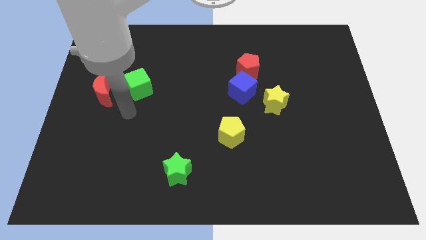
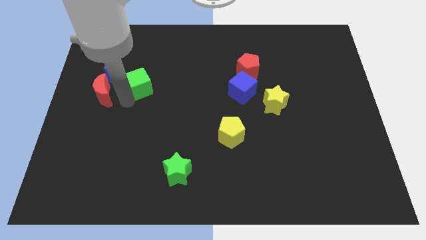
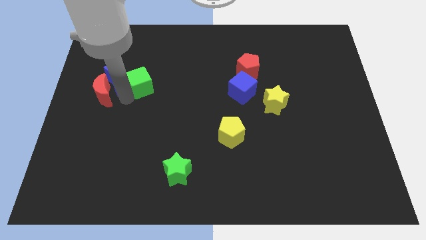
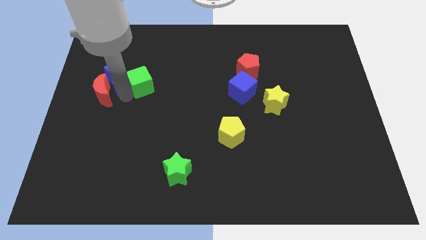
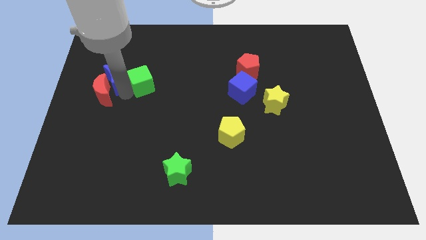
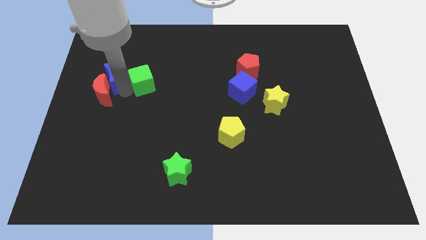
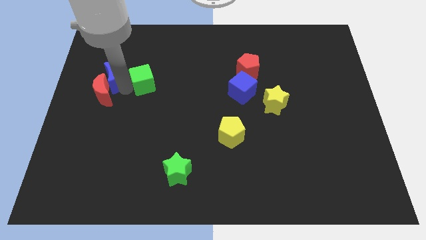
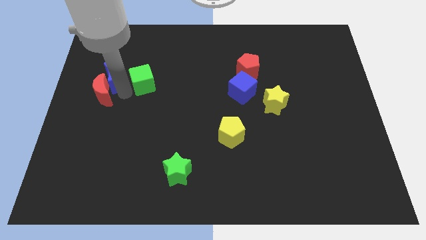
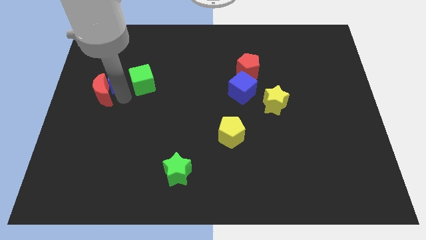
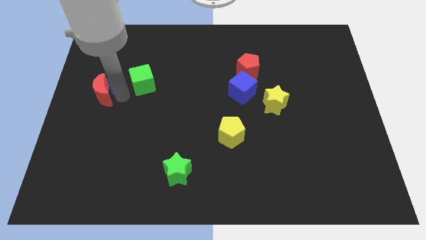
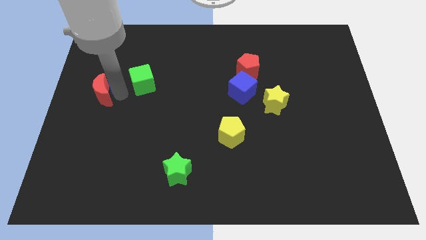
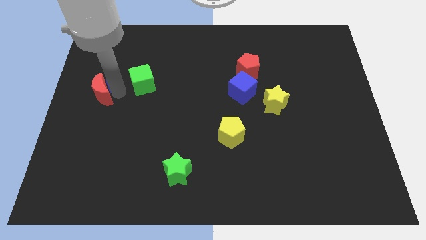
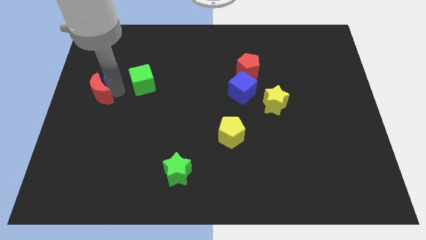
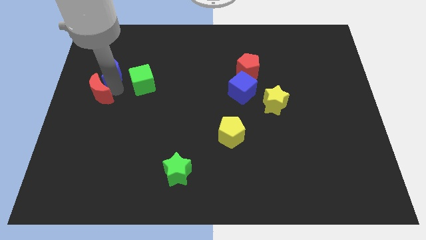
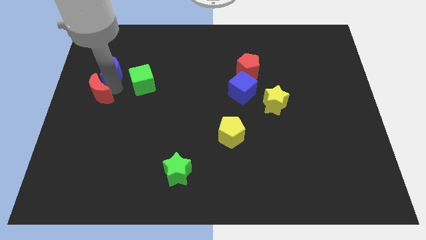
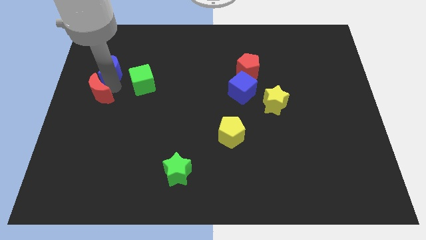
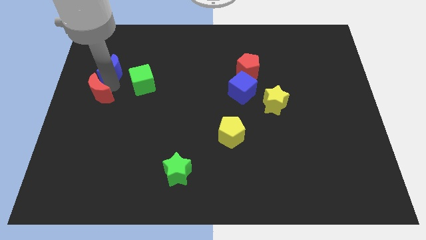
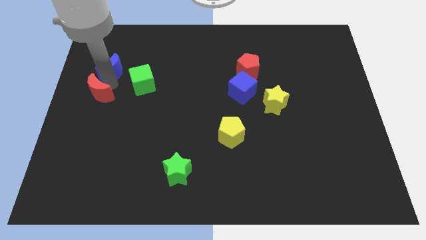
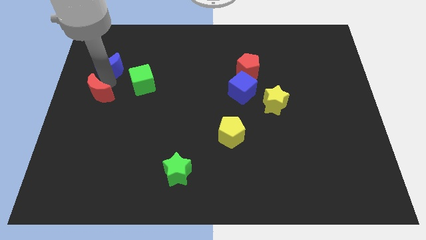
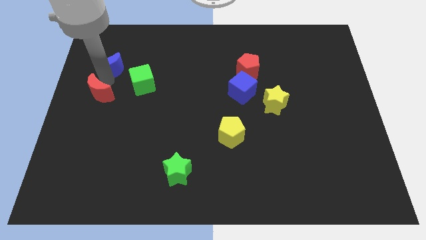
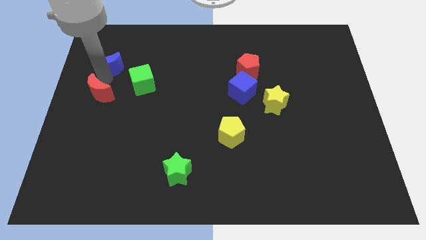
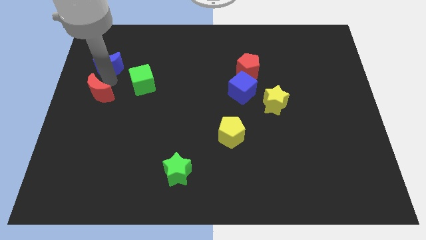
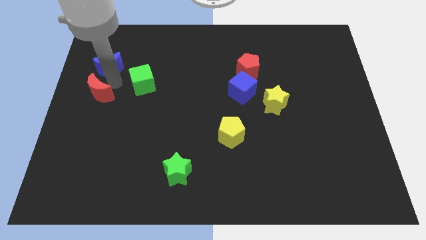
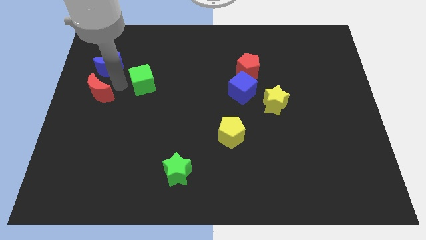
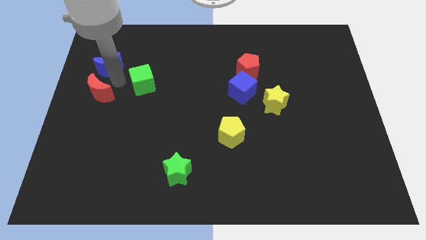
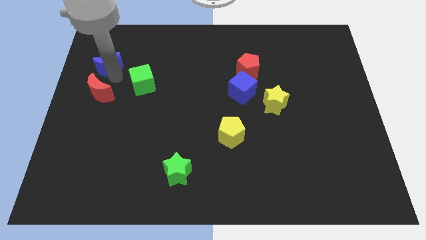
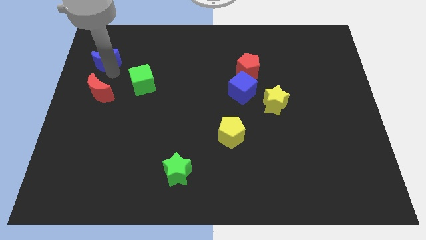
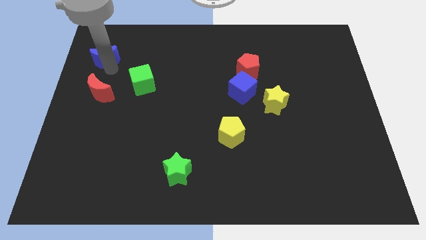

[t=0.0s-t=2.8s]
pull the blue moon apart from the red moon and green cube

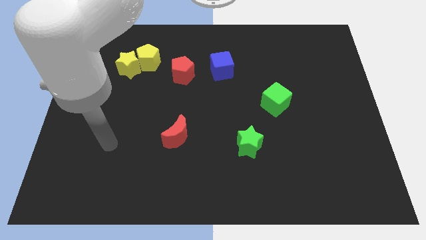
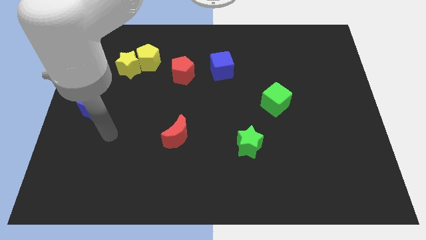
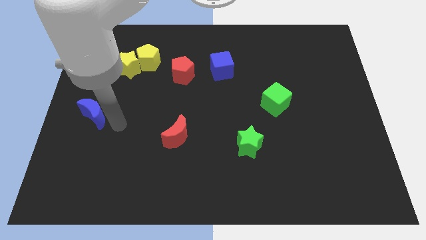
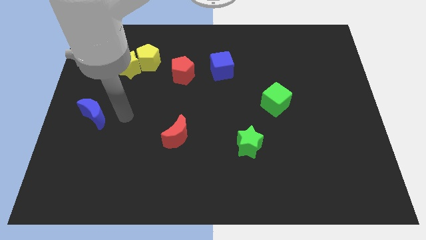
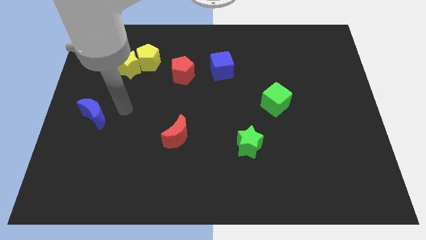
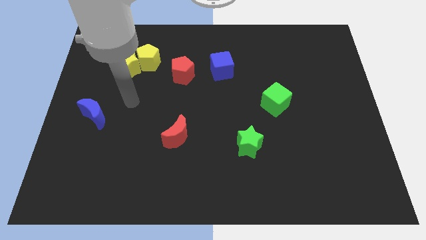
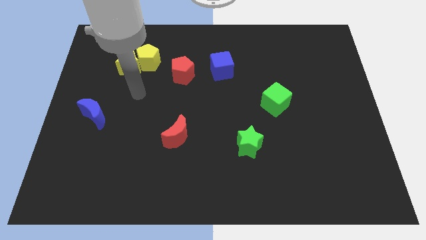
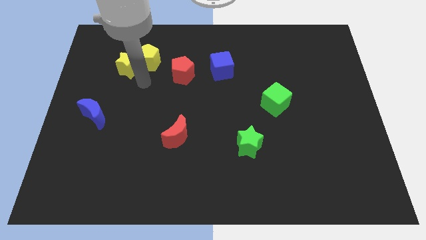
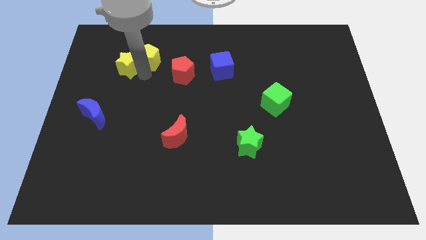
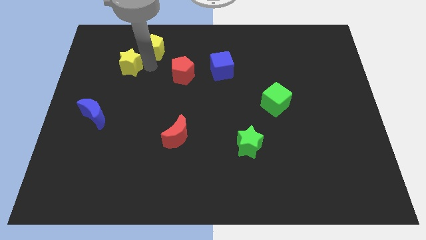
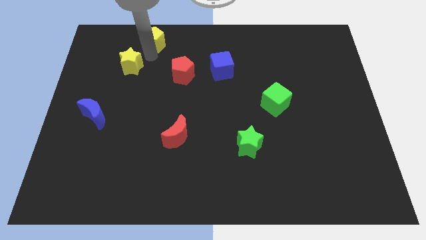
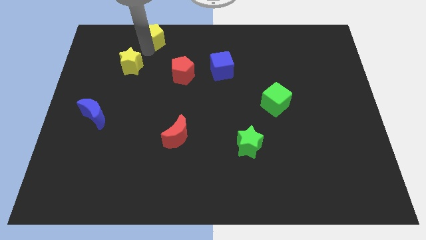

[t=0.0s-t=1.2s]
pull the yellow star apart from the yellow pentagon

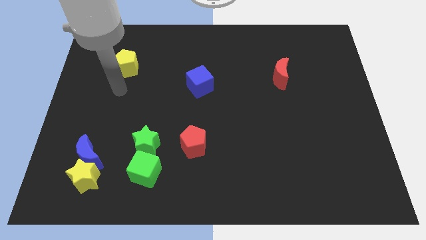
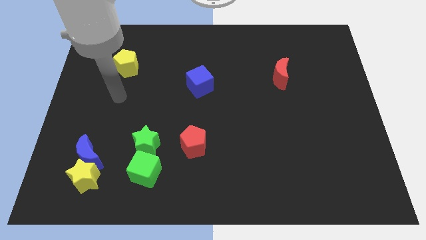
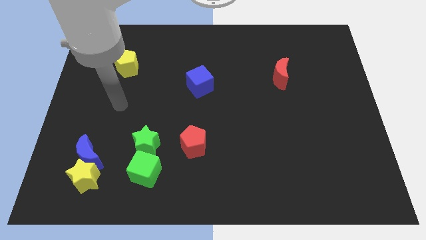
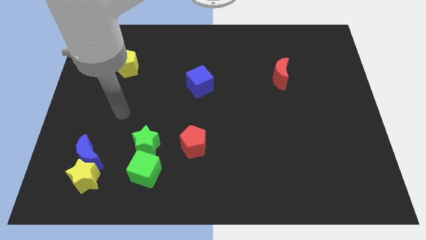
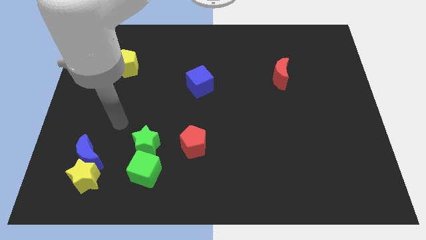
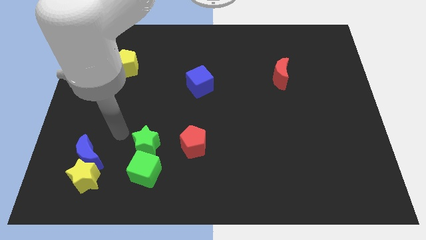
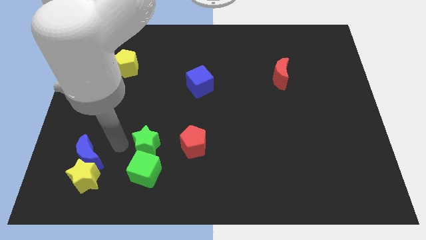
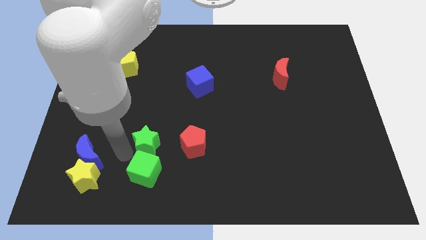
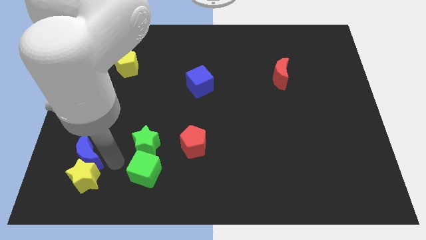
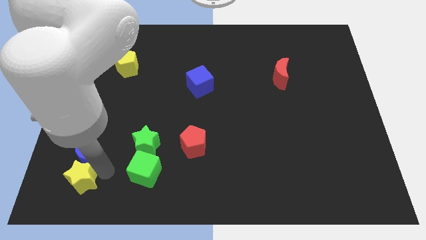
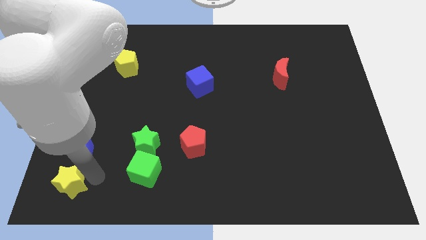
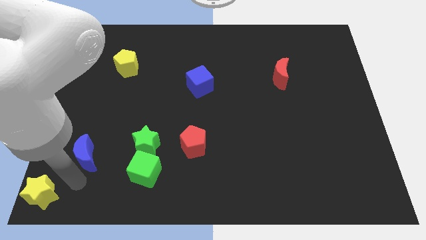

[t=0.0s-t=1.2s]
move the blue moon away from the yellow star

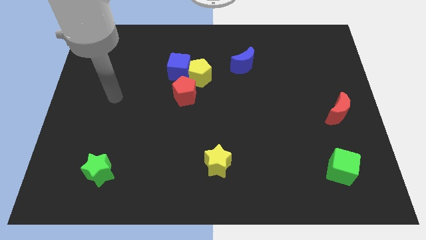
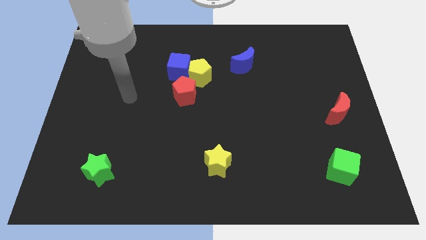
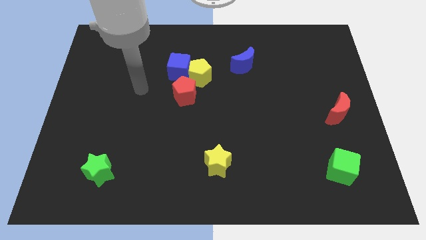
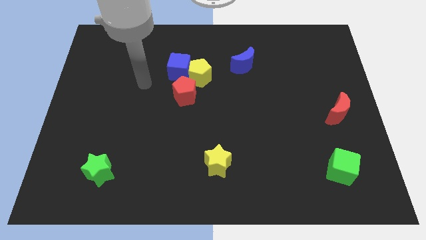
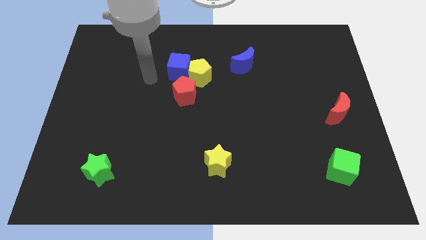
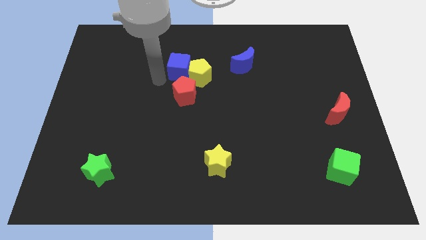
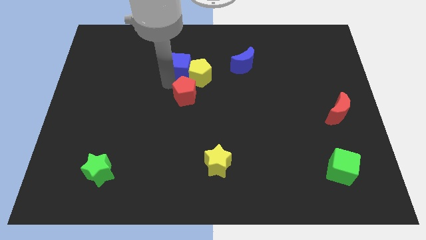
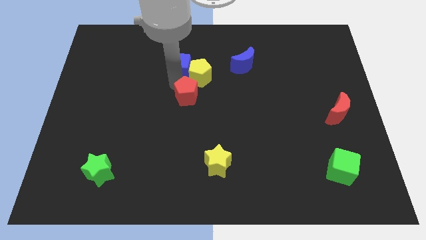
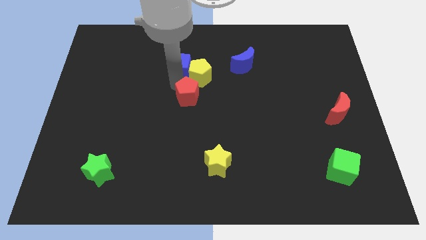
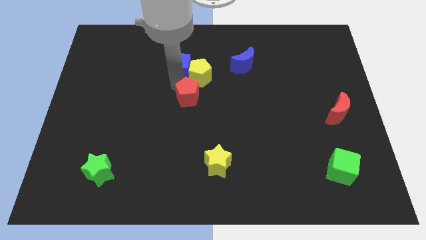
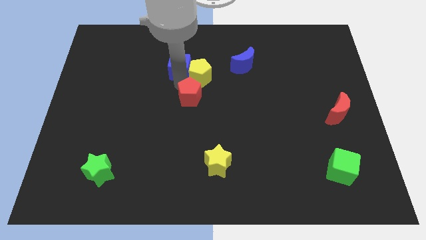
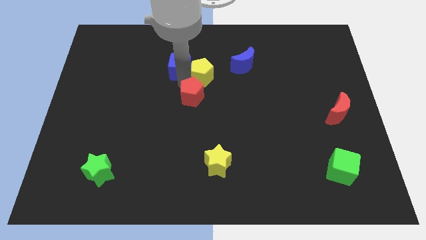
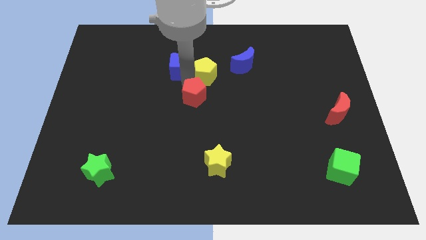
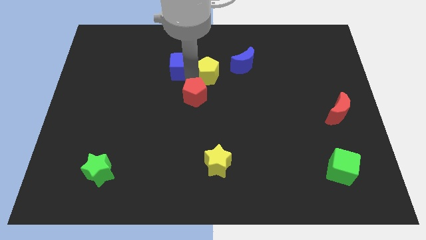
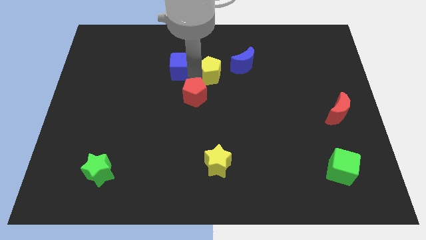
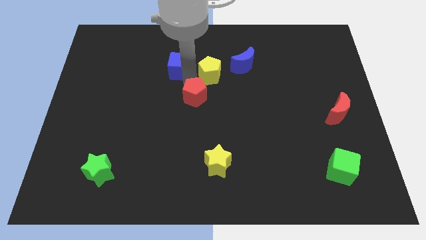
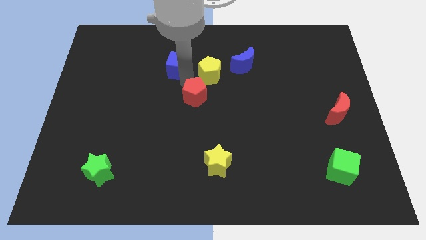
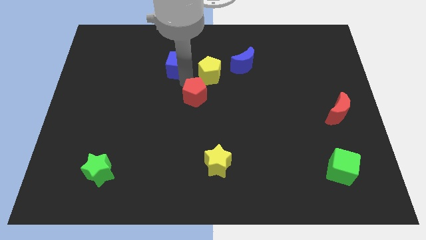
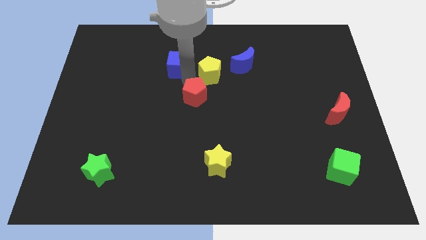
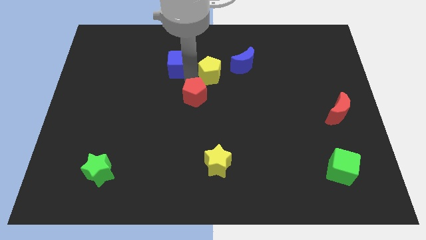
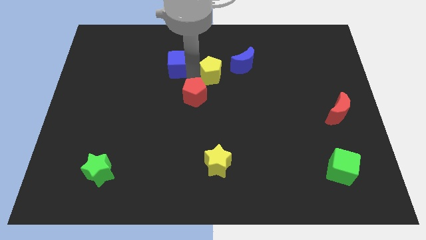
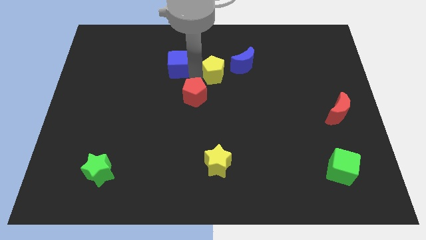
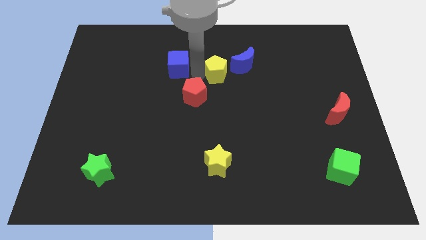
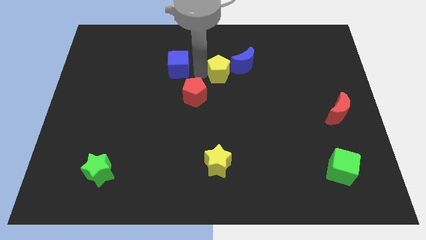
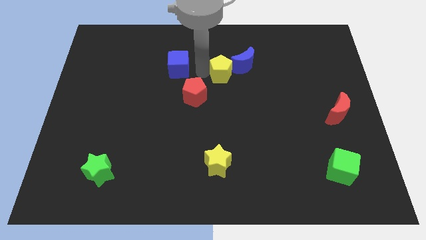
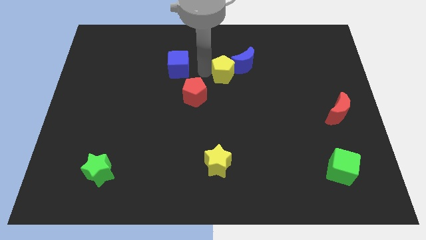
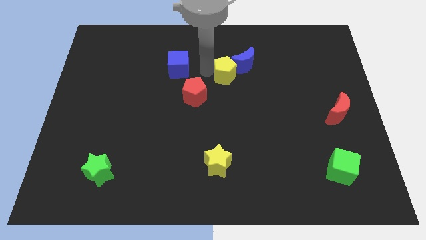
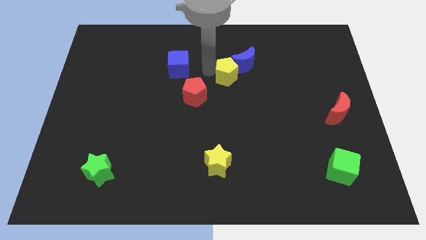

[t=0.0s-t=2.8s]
pull the yellow pentagon apart from the blue cube and red pentagon

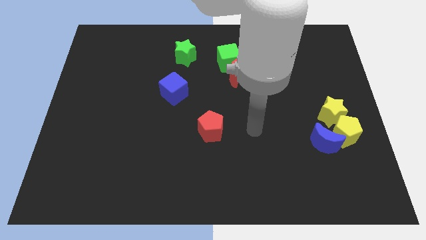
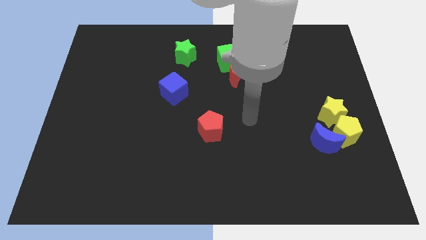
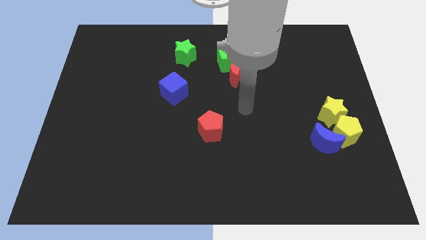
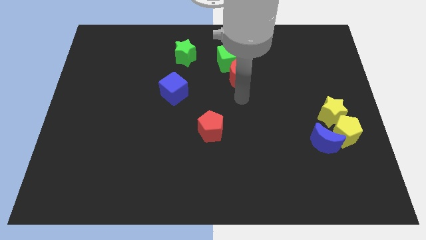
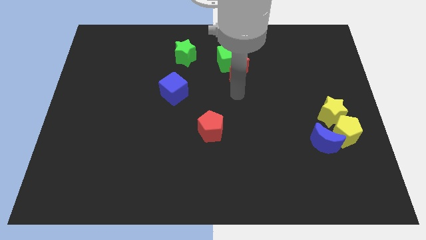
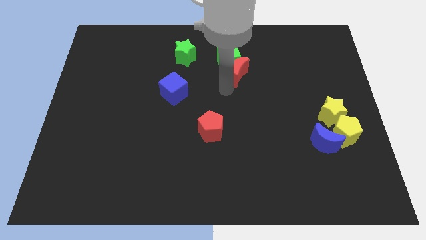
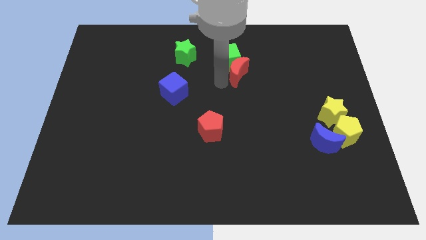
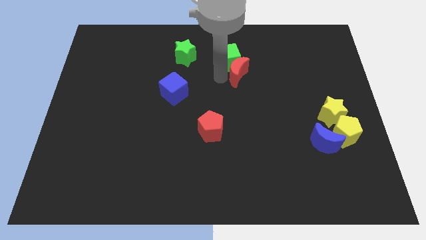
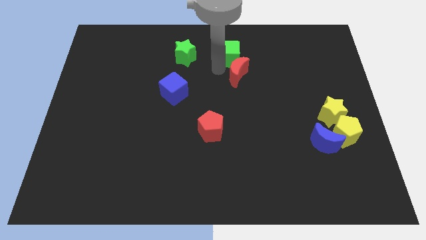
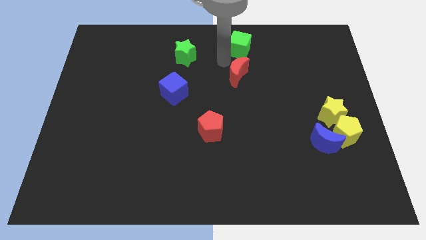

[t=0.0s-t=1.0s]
pull the red moon apart from the green cube

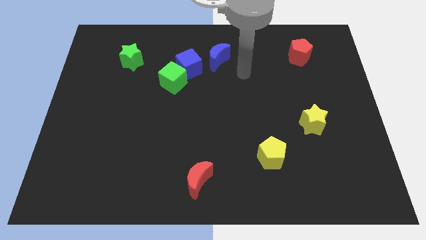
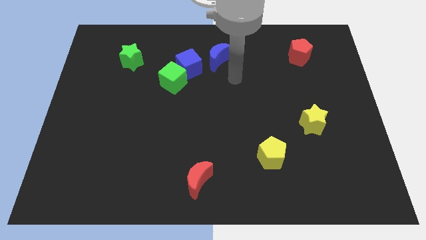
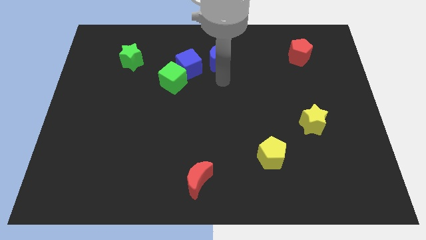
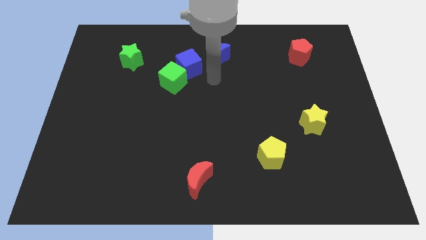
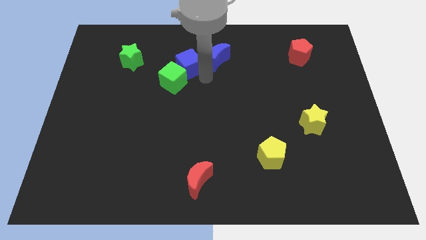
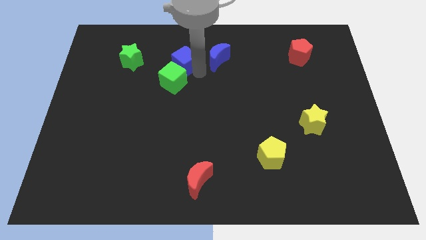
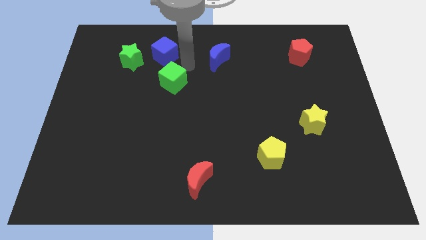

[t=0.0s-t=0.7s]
pull the green cube apart from the blue cube
